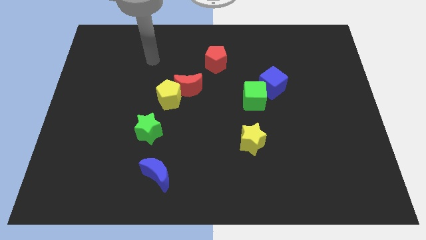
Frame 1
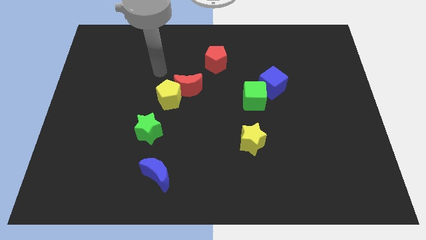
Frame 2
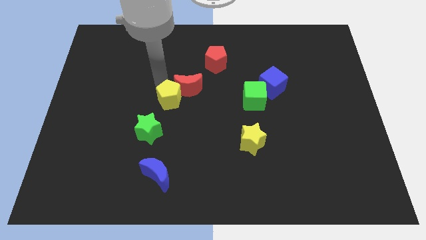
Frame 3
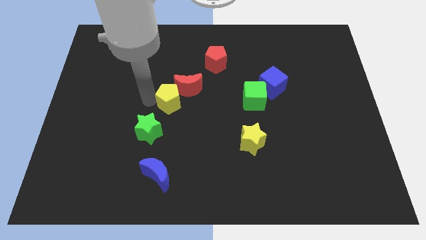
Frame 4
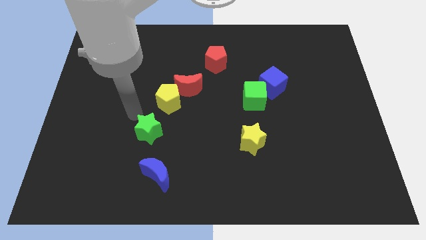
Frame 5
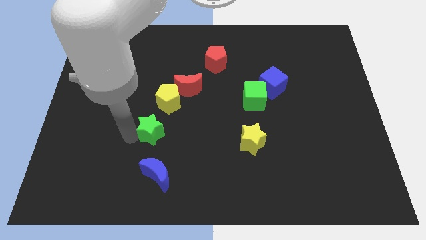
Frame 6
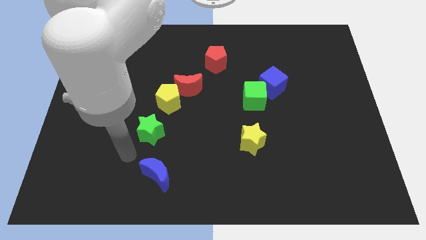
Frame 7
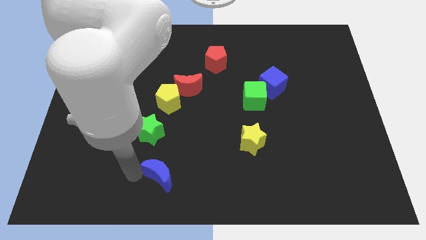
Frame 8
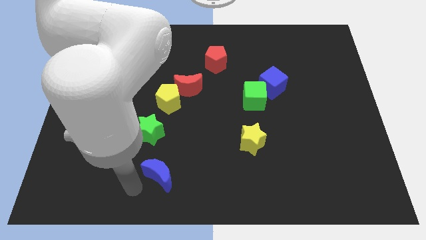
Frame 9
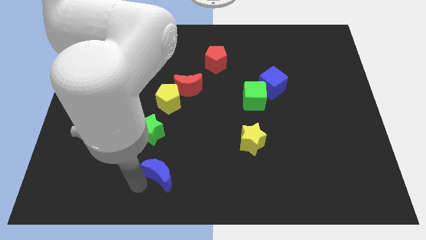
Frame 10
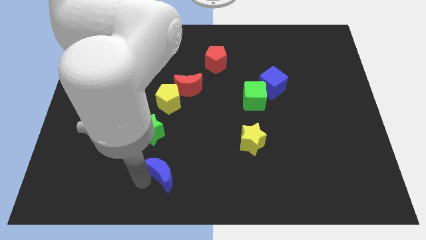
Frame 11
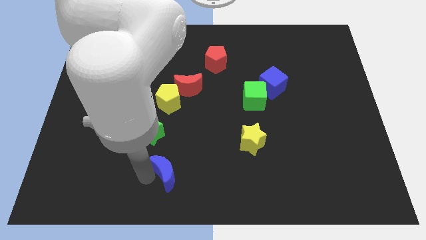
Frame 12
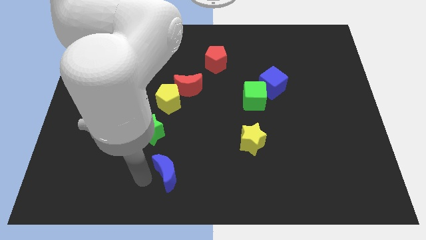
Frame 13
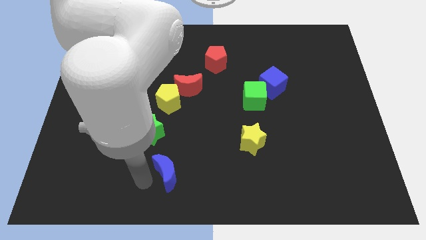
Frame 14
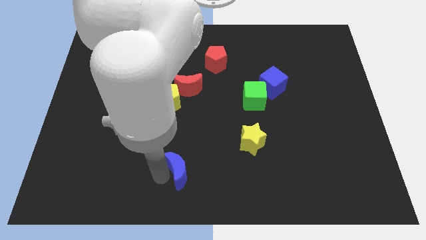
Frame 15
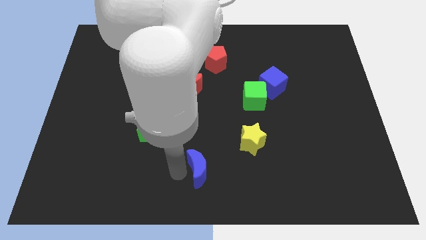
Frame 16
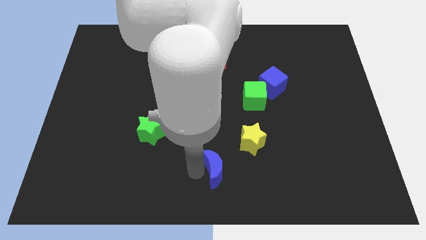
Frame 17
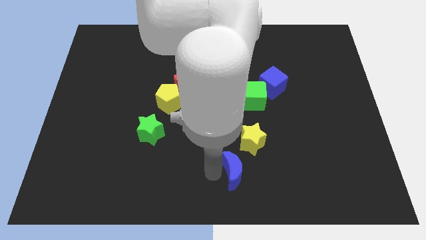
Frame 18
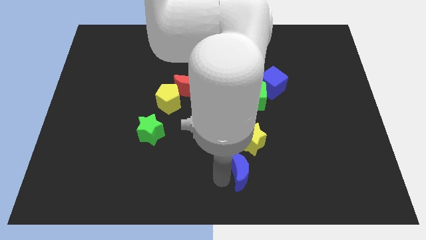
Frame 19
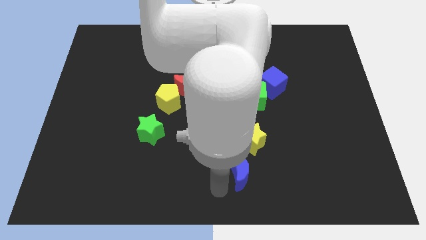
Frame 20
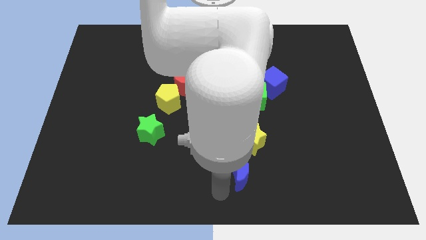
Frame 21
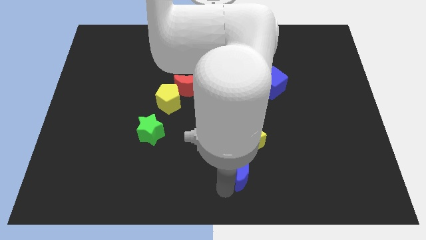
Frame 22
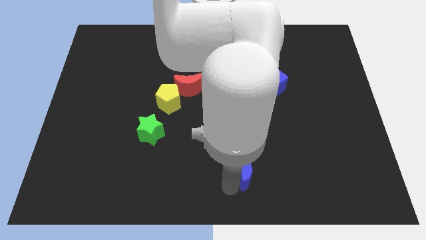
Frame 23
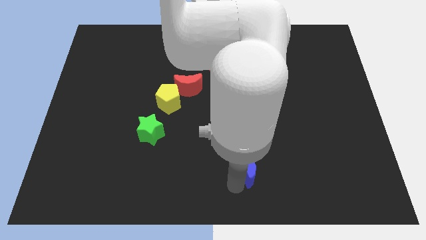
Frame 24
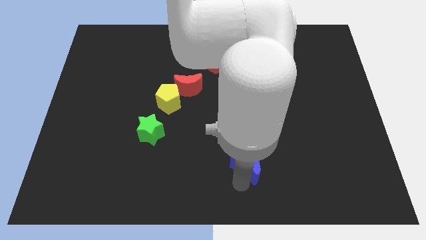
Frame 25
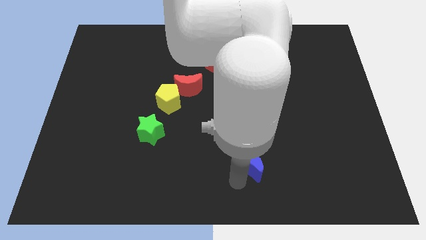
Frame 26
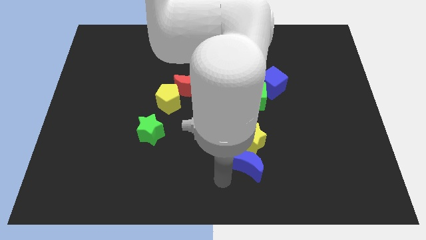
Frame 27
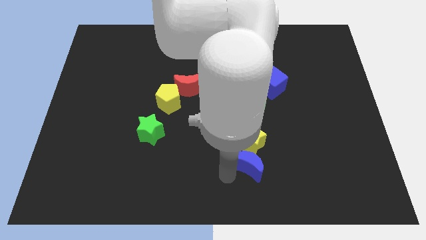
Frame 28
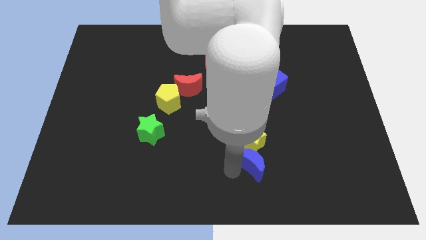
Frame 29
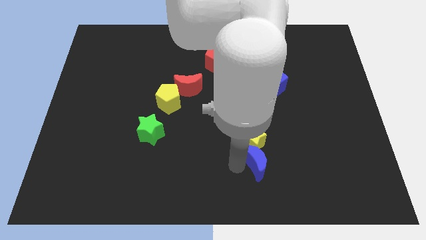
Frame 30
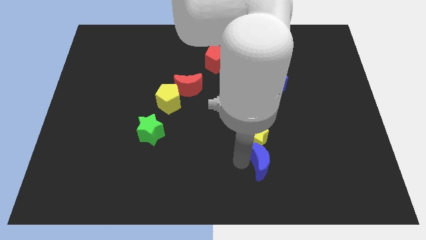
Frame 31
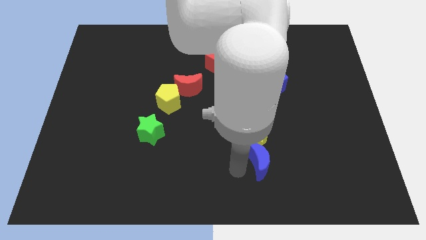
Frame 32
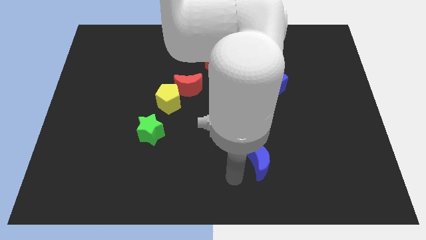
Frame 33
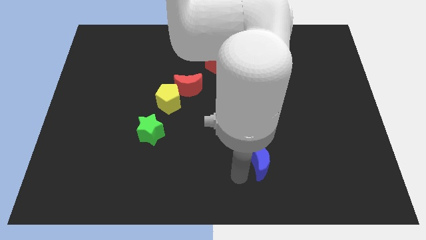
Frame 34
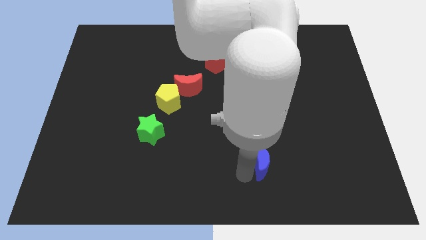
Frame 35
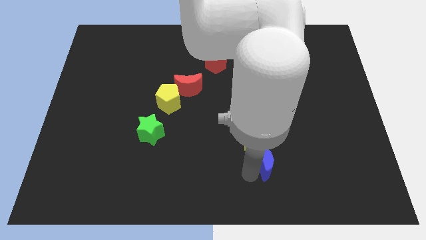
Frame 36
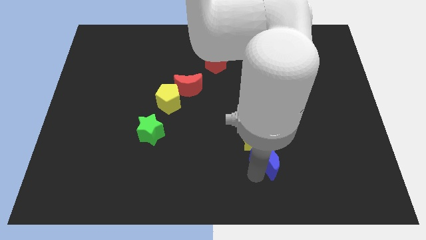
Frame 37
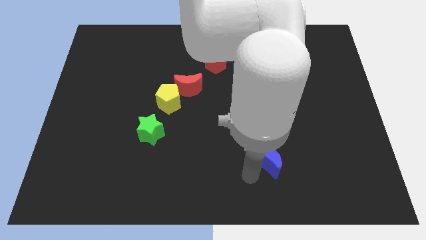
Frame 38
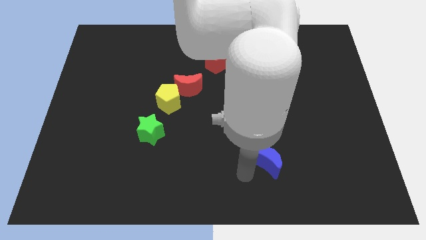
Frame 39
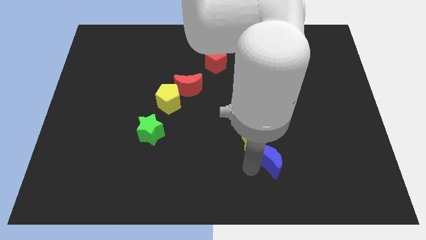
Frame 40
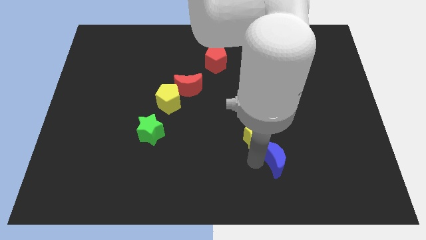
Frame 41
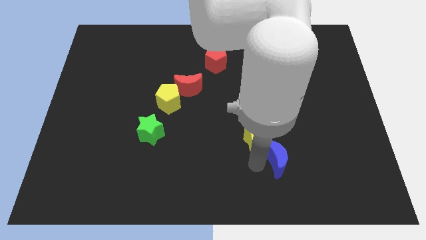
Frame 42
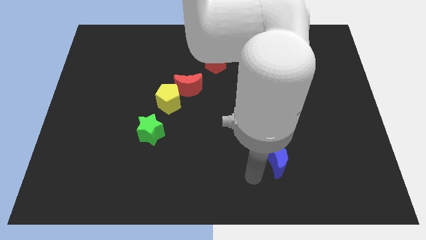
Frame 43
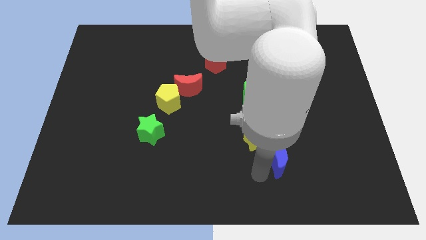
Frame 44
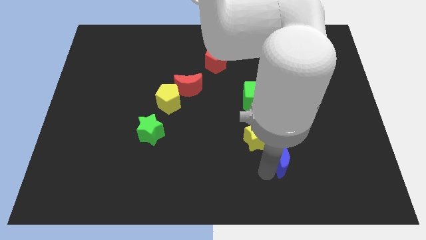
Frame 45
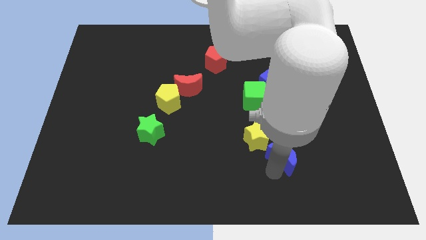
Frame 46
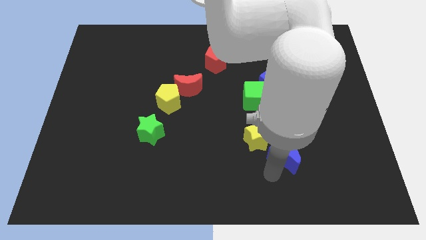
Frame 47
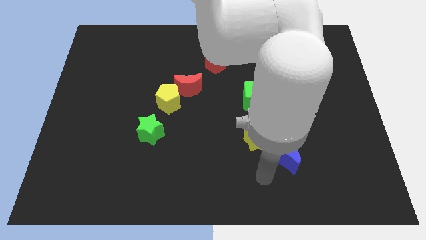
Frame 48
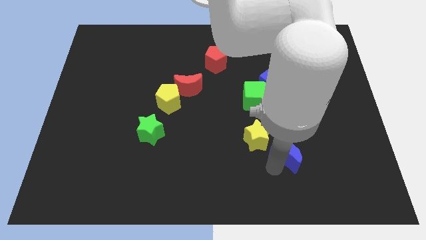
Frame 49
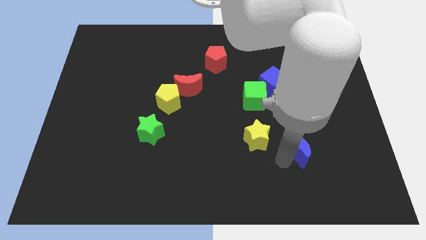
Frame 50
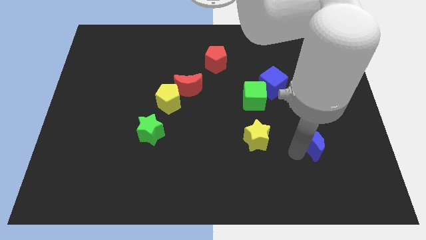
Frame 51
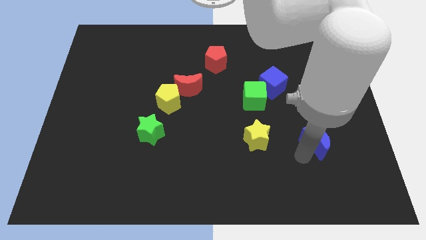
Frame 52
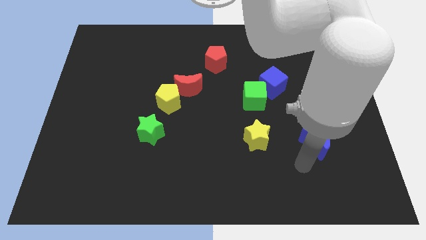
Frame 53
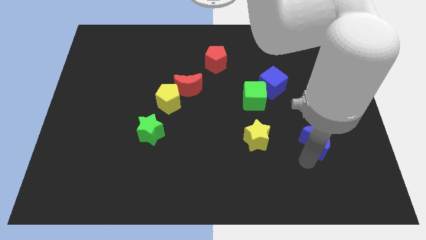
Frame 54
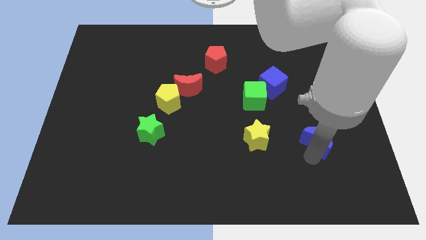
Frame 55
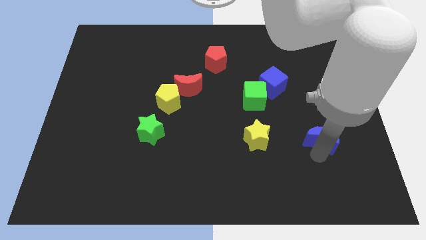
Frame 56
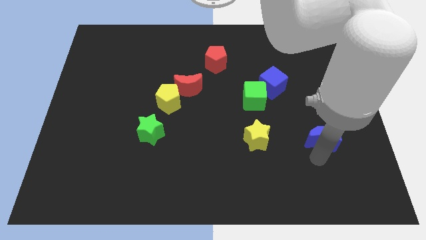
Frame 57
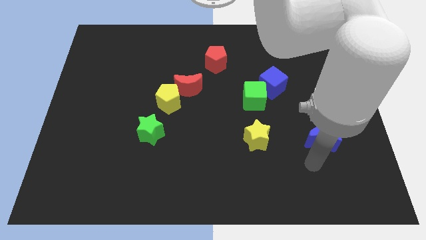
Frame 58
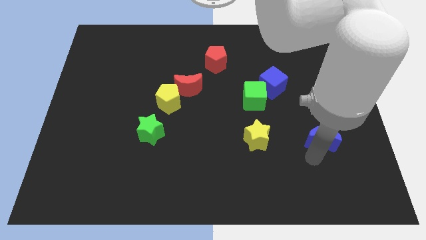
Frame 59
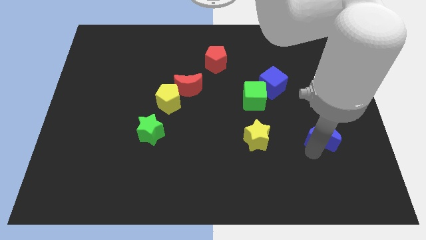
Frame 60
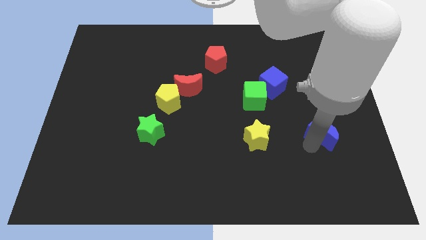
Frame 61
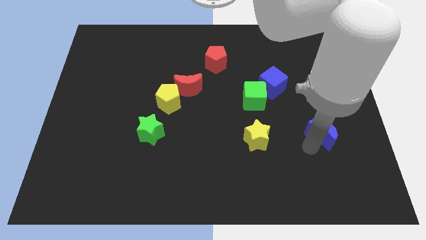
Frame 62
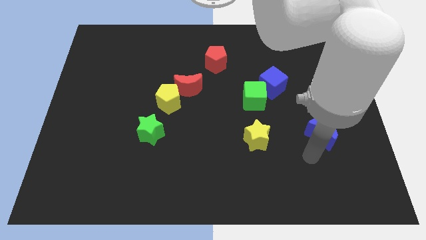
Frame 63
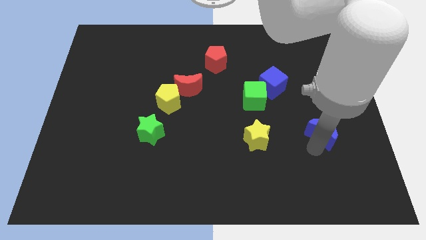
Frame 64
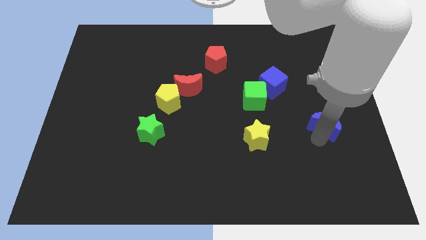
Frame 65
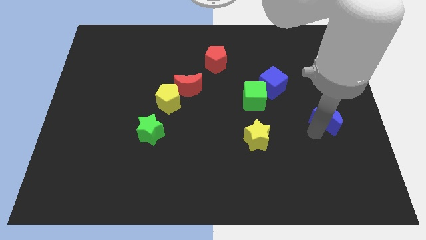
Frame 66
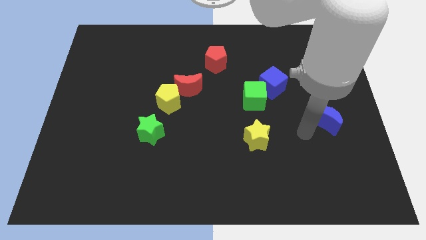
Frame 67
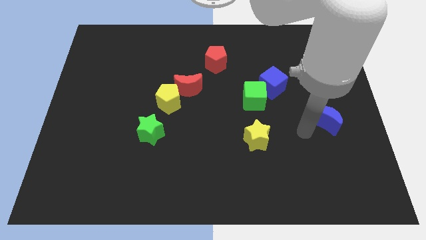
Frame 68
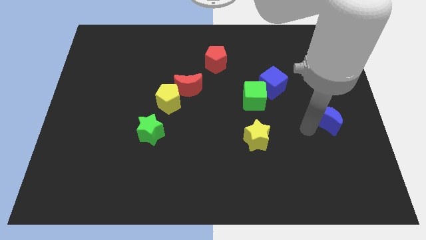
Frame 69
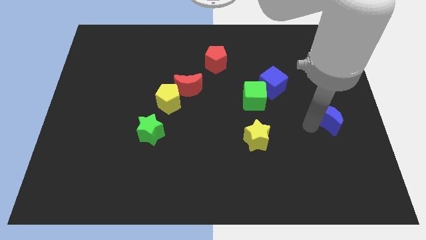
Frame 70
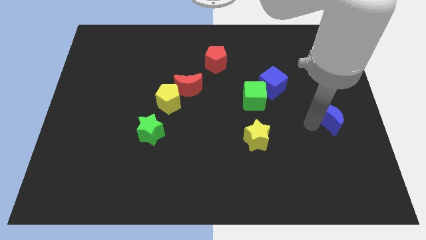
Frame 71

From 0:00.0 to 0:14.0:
move the blue moon to the right side of the board
